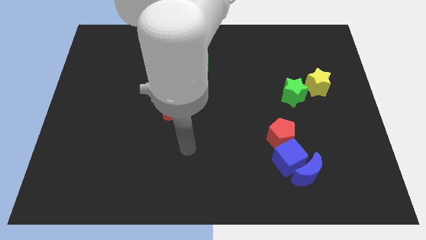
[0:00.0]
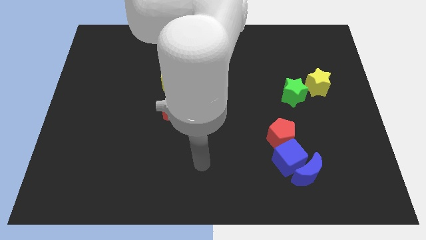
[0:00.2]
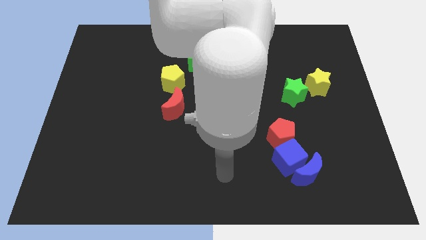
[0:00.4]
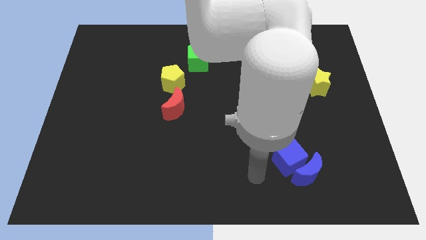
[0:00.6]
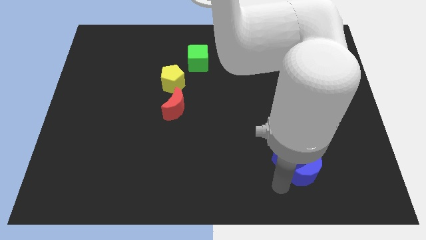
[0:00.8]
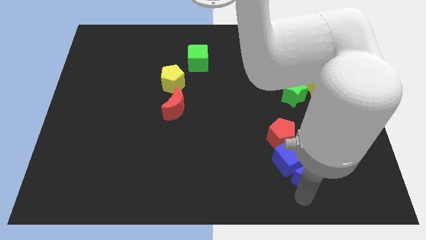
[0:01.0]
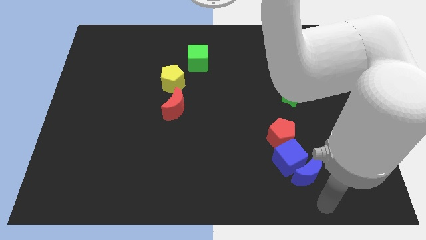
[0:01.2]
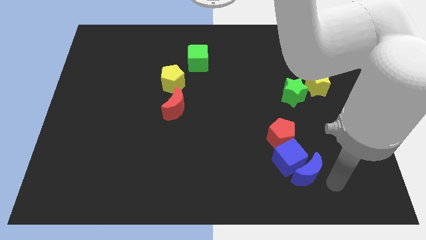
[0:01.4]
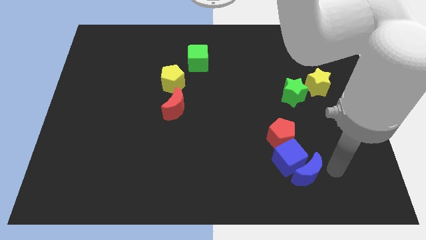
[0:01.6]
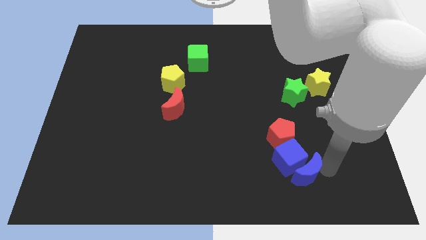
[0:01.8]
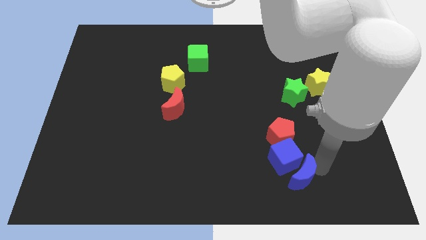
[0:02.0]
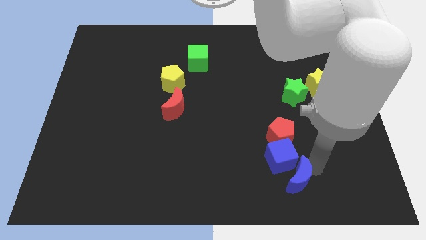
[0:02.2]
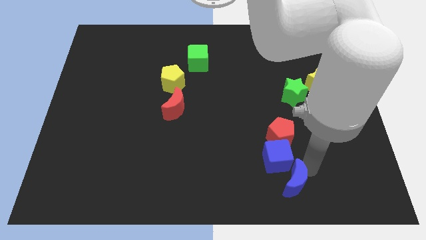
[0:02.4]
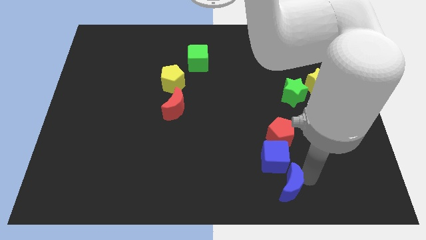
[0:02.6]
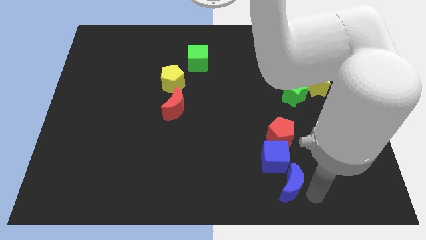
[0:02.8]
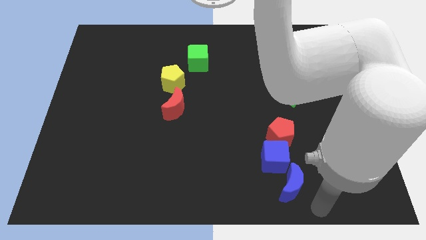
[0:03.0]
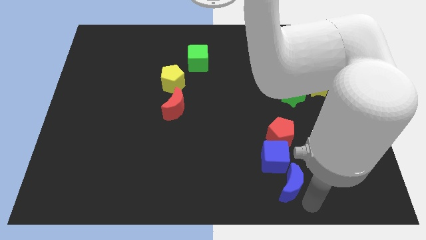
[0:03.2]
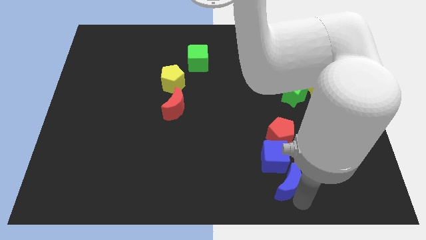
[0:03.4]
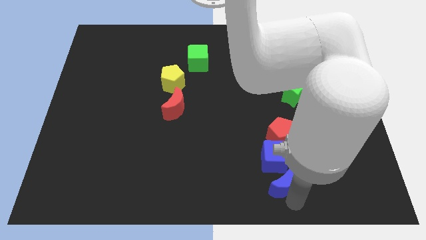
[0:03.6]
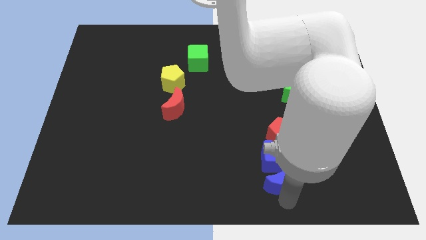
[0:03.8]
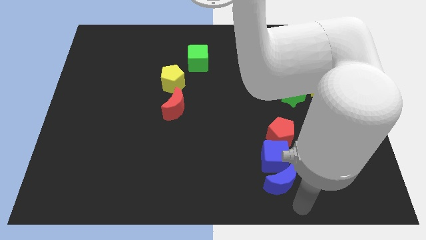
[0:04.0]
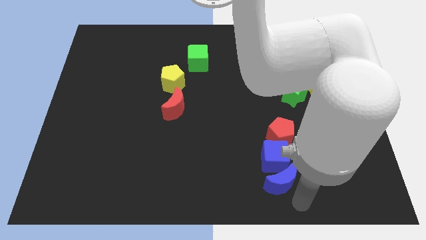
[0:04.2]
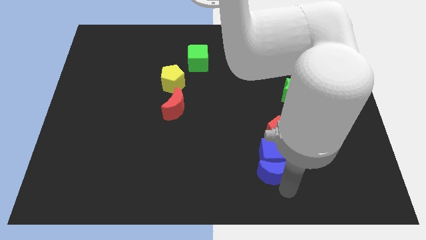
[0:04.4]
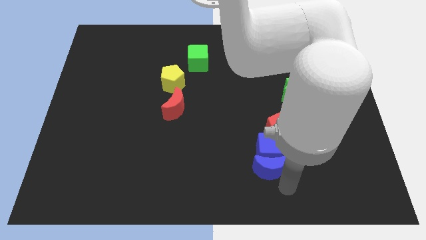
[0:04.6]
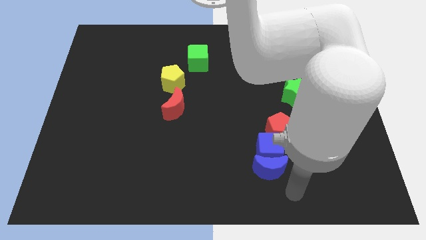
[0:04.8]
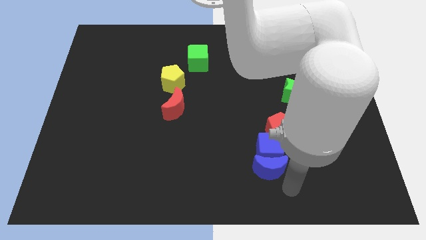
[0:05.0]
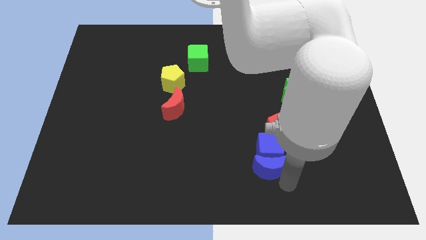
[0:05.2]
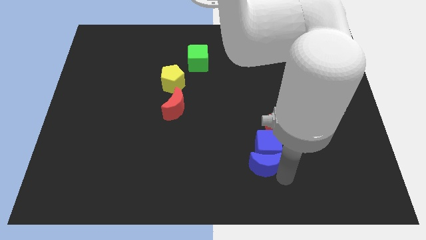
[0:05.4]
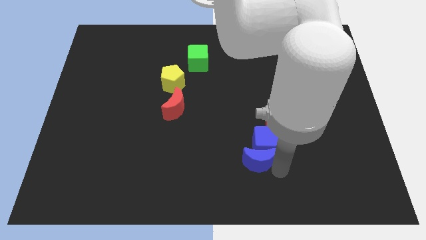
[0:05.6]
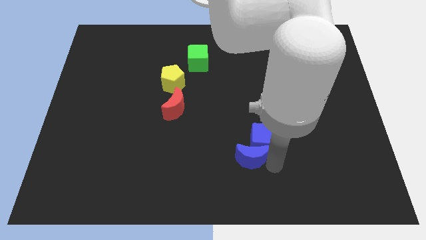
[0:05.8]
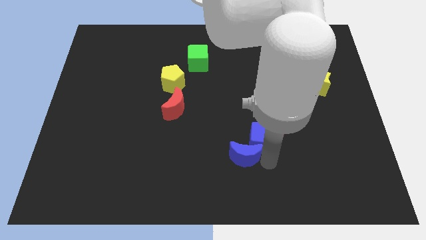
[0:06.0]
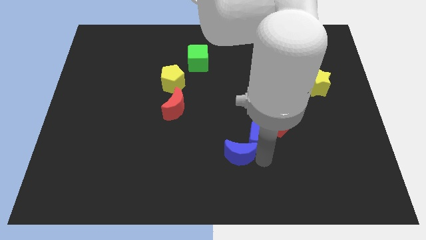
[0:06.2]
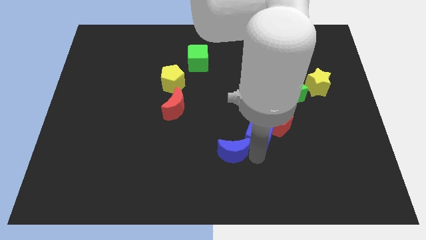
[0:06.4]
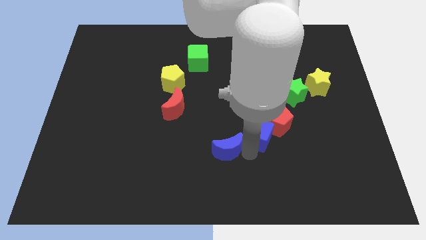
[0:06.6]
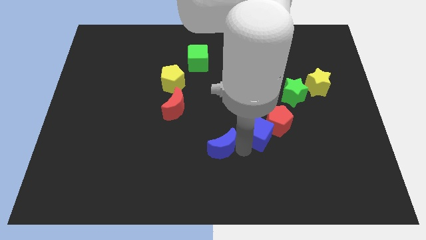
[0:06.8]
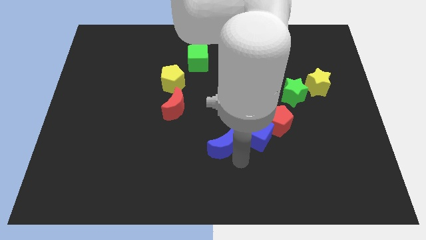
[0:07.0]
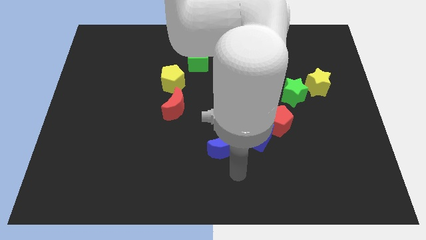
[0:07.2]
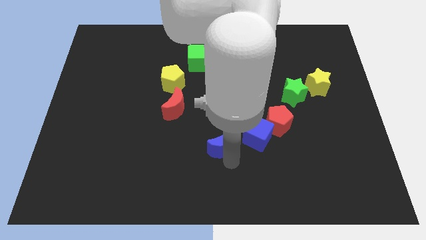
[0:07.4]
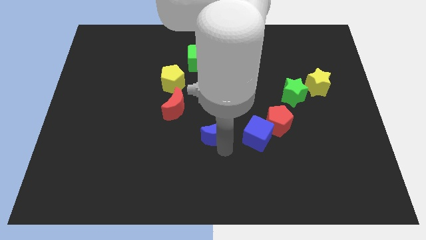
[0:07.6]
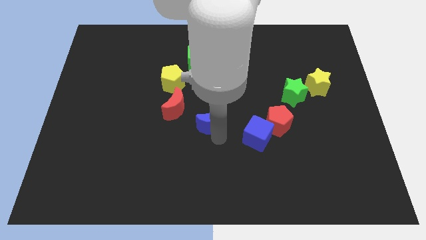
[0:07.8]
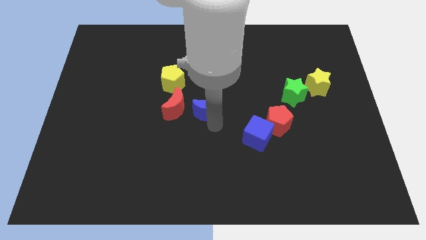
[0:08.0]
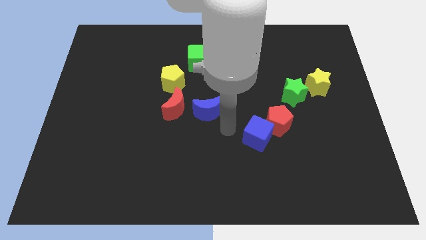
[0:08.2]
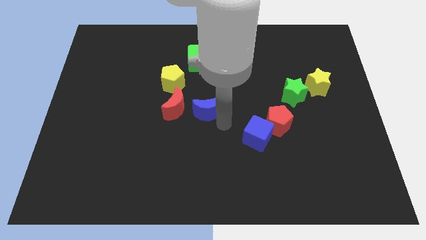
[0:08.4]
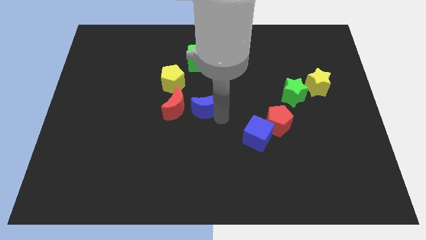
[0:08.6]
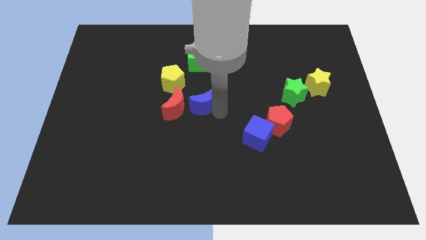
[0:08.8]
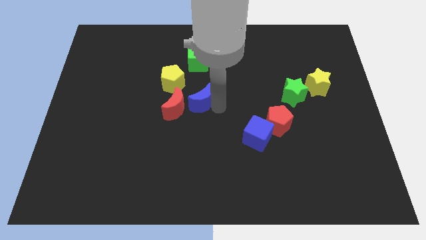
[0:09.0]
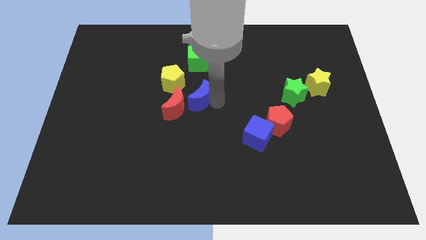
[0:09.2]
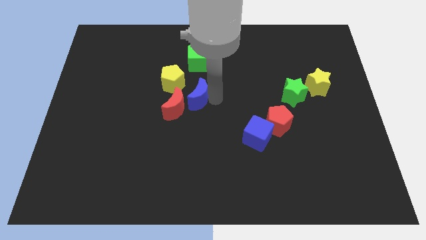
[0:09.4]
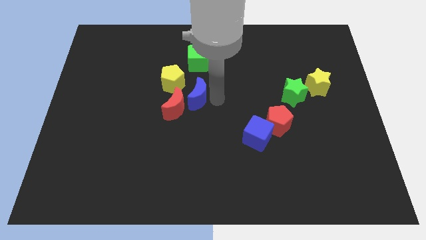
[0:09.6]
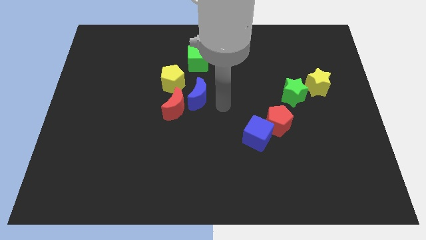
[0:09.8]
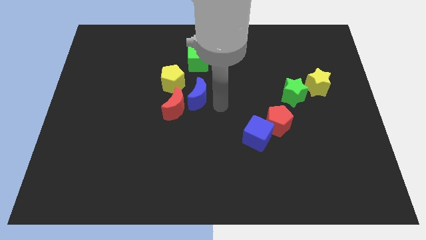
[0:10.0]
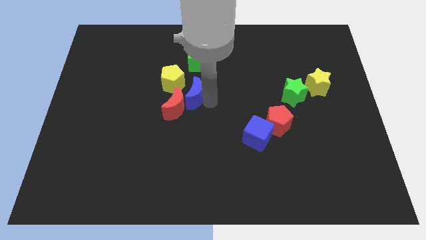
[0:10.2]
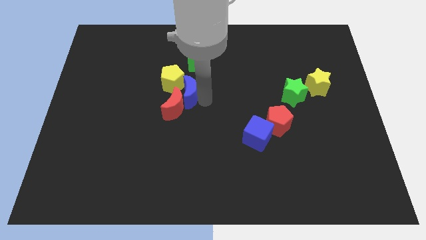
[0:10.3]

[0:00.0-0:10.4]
put the blue moon towards the yellow pentagon

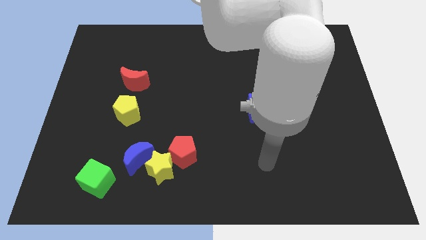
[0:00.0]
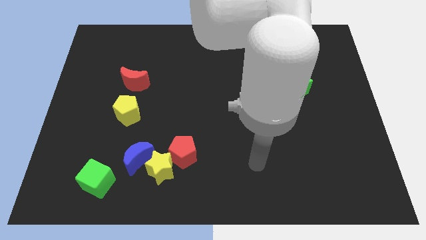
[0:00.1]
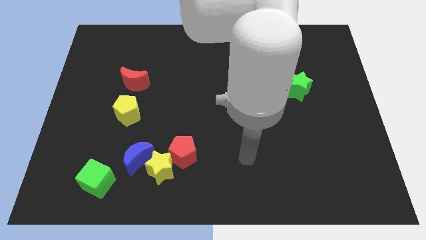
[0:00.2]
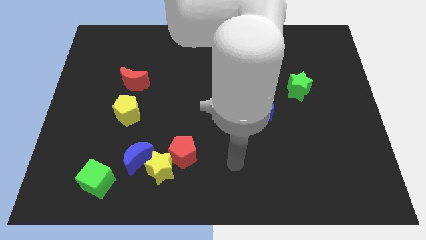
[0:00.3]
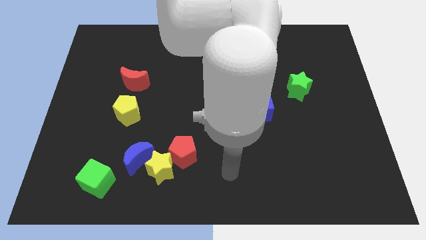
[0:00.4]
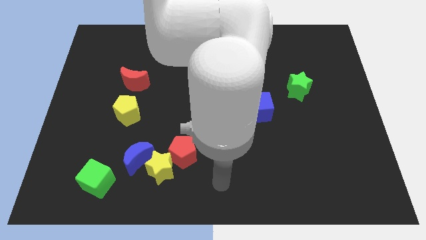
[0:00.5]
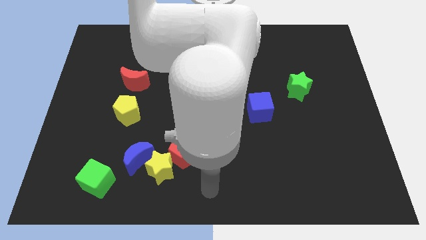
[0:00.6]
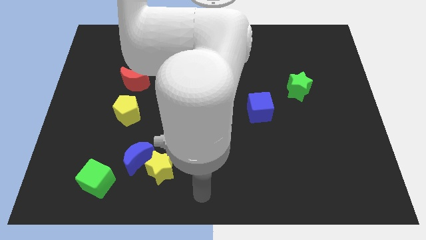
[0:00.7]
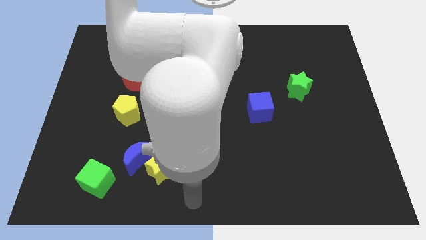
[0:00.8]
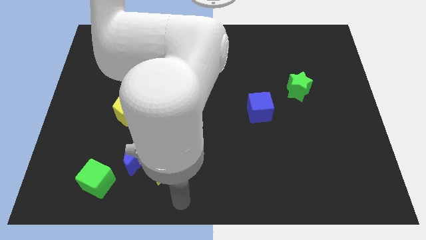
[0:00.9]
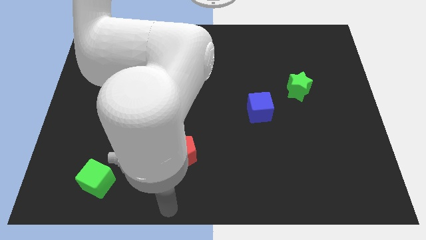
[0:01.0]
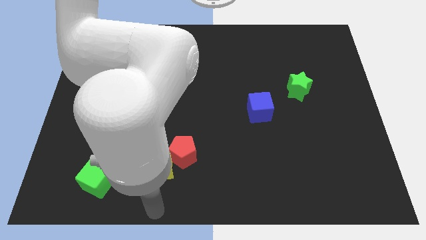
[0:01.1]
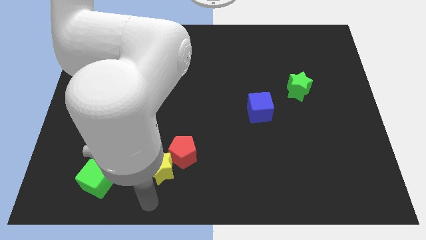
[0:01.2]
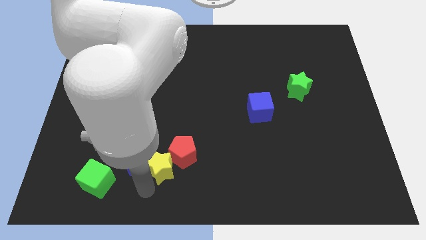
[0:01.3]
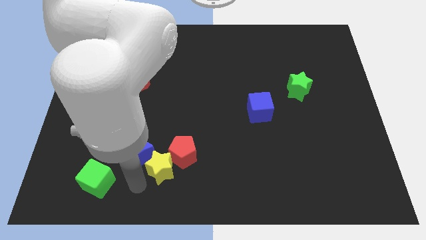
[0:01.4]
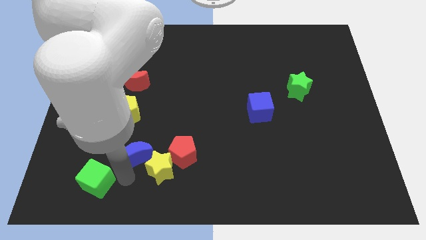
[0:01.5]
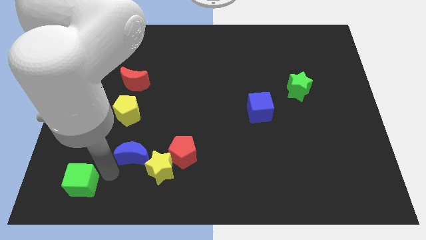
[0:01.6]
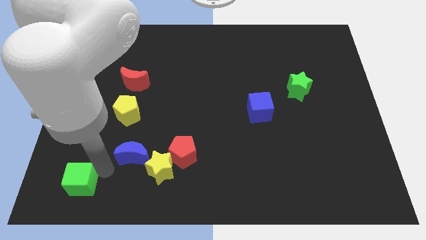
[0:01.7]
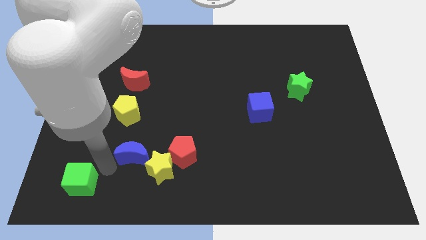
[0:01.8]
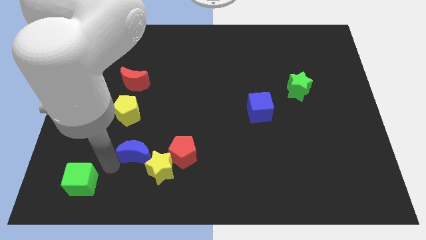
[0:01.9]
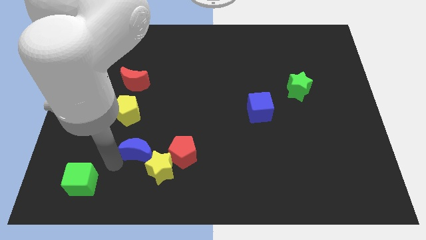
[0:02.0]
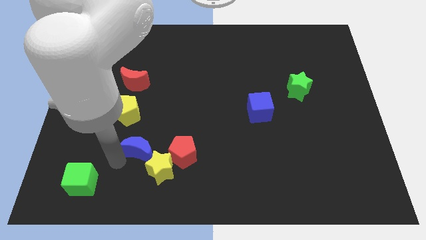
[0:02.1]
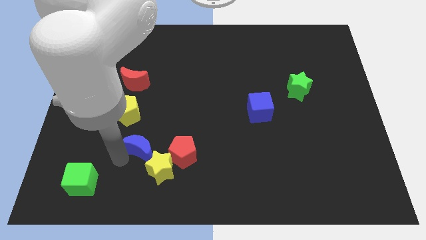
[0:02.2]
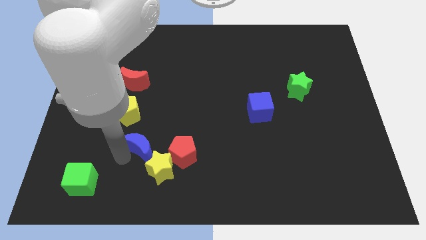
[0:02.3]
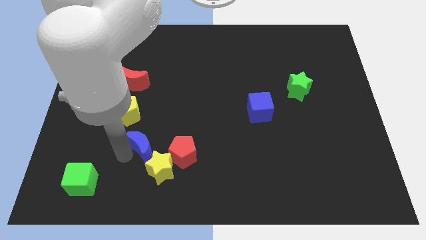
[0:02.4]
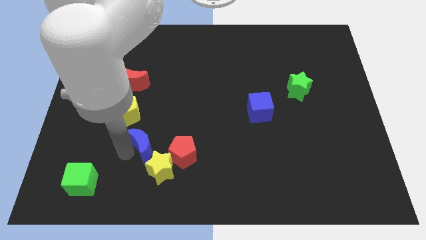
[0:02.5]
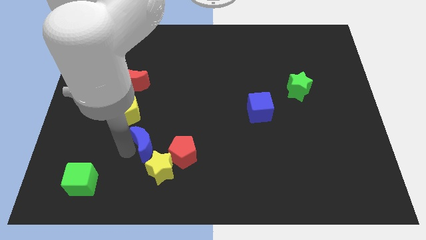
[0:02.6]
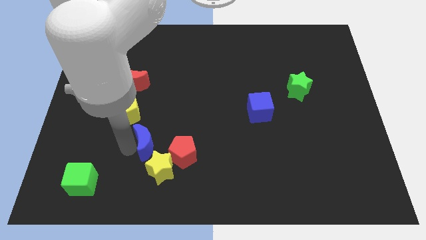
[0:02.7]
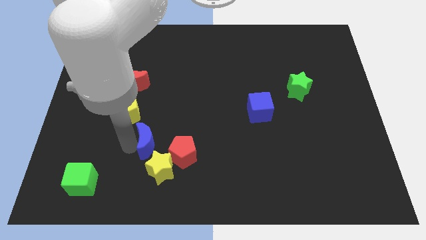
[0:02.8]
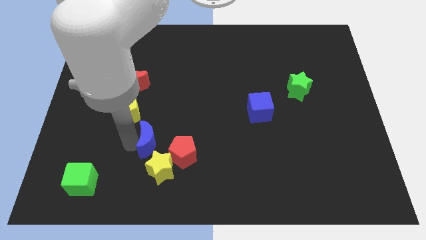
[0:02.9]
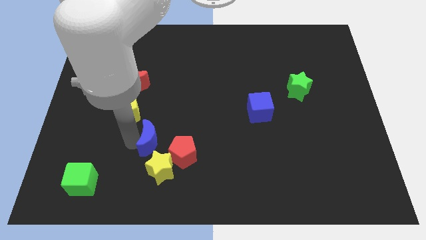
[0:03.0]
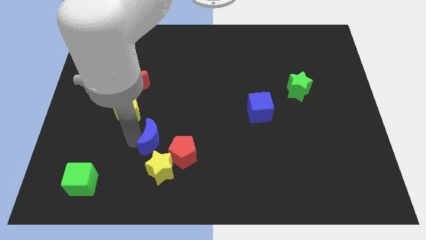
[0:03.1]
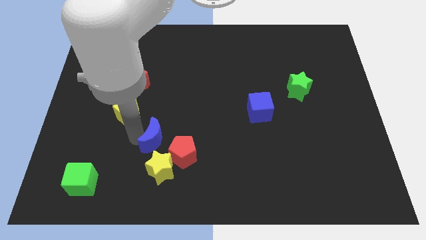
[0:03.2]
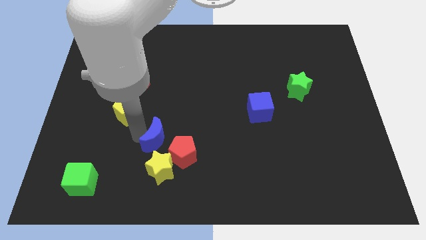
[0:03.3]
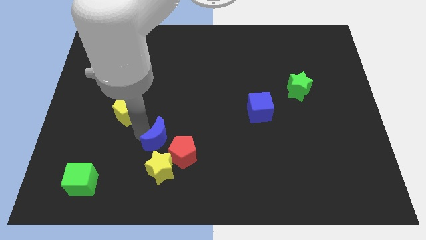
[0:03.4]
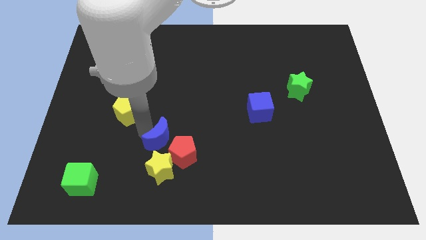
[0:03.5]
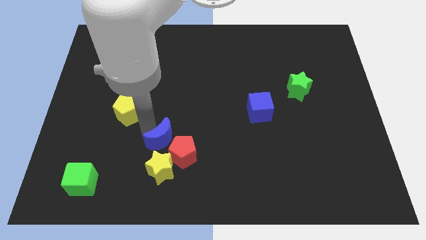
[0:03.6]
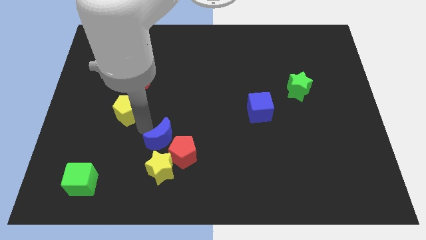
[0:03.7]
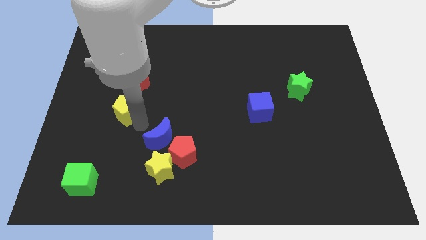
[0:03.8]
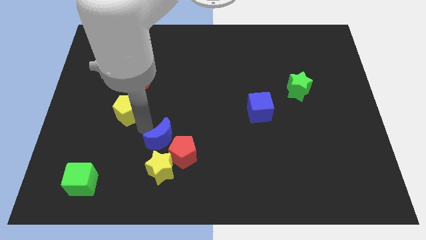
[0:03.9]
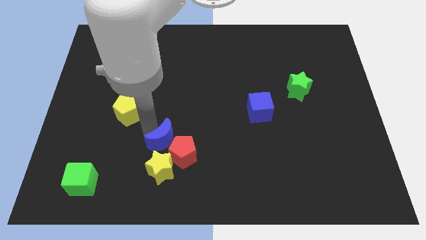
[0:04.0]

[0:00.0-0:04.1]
move the blue moon to the red pentagon
